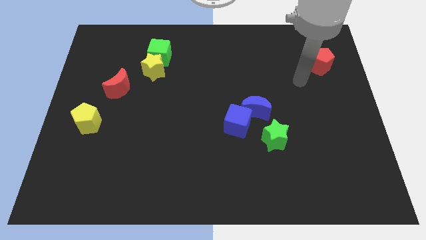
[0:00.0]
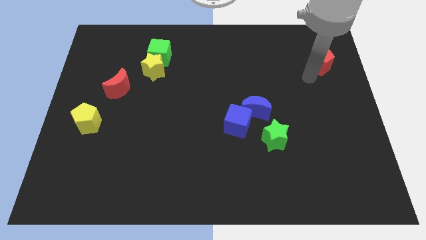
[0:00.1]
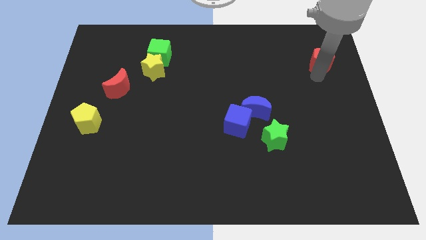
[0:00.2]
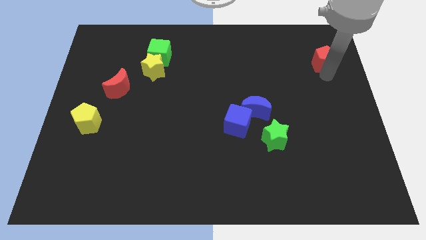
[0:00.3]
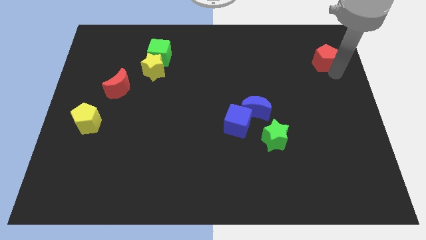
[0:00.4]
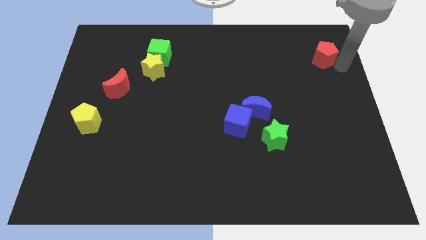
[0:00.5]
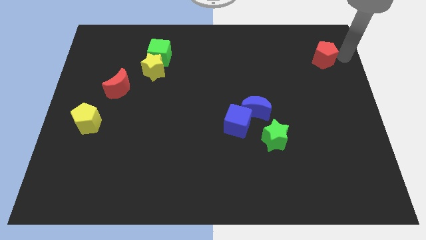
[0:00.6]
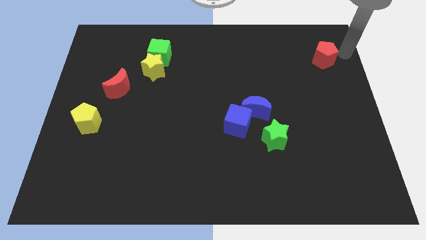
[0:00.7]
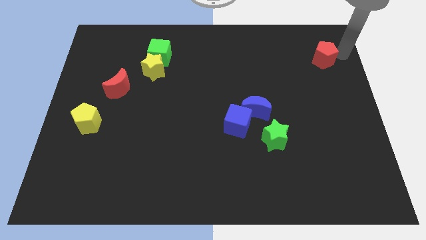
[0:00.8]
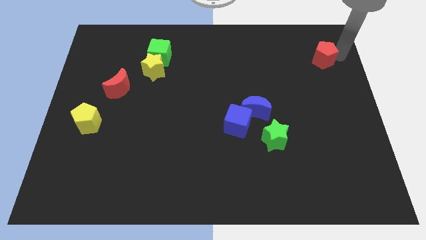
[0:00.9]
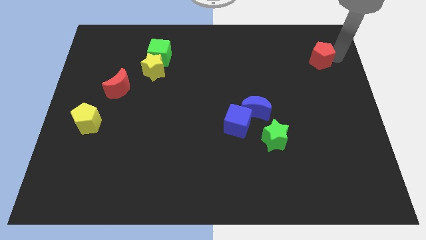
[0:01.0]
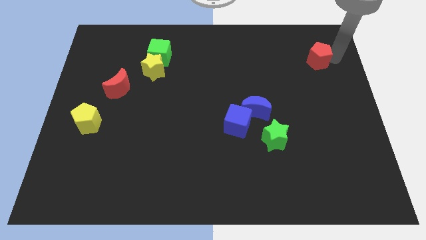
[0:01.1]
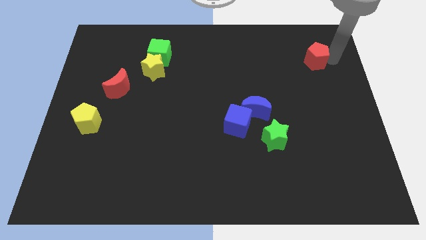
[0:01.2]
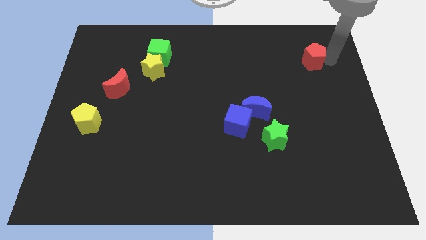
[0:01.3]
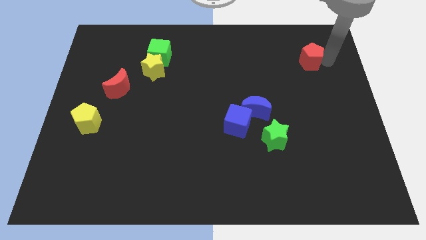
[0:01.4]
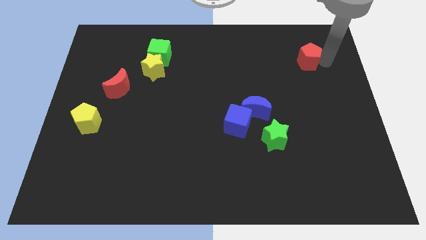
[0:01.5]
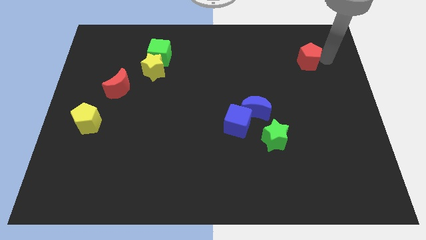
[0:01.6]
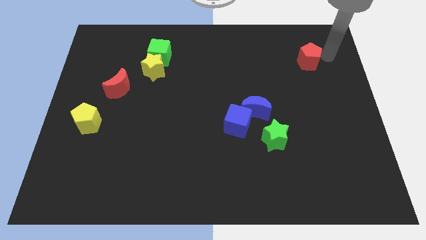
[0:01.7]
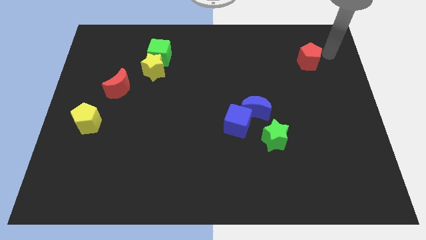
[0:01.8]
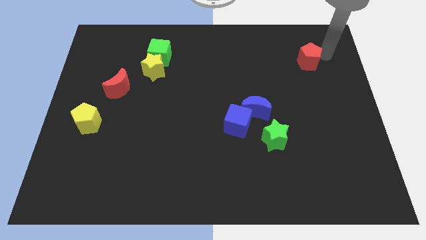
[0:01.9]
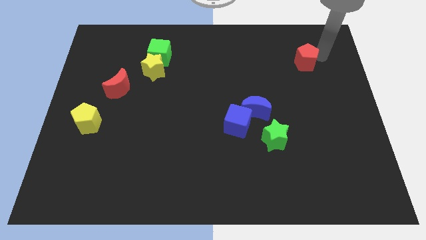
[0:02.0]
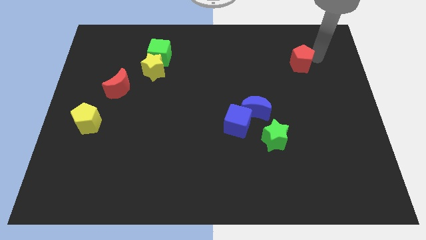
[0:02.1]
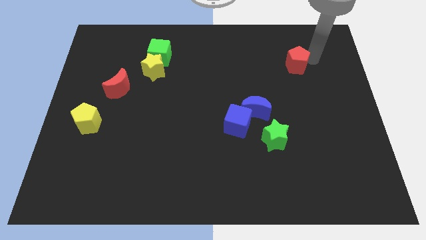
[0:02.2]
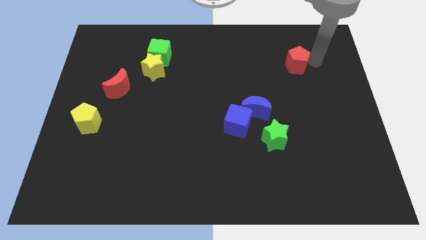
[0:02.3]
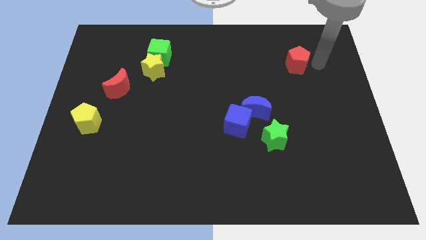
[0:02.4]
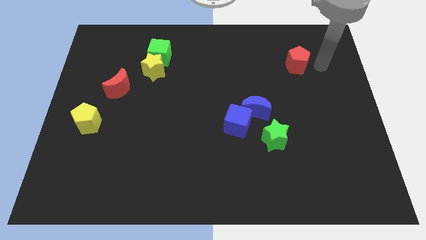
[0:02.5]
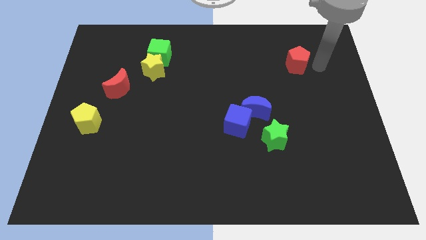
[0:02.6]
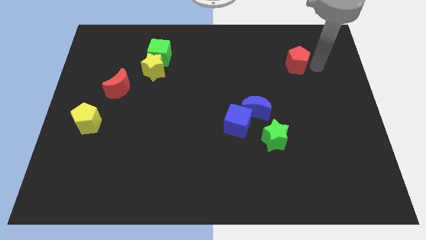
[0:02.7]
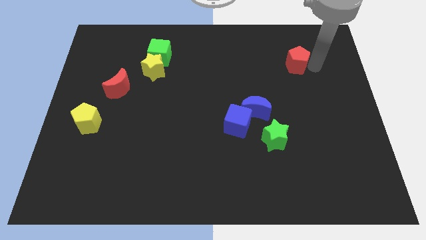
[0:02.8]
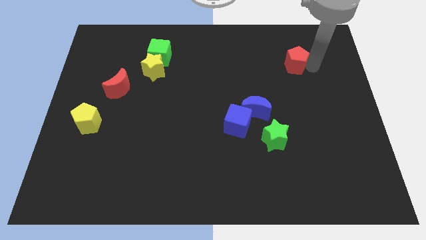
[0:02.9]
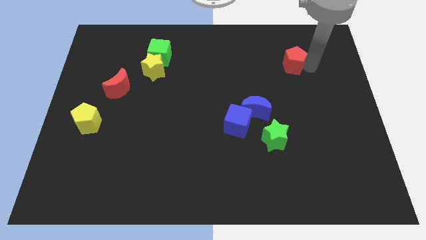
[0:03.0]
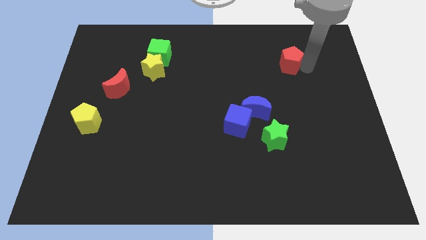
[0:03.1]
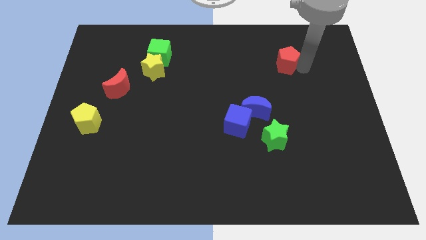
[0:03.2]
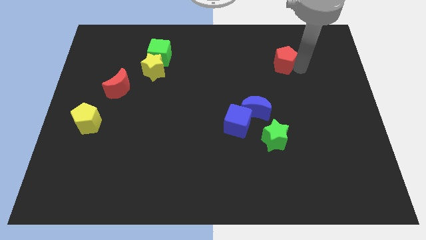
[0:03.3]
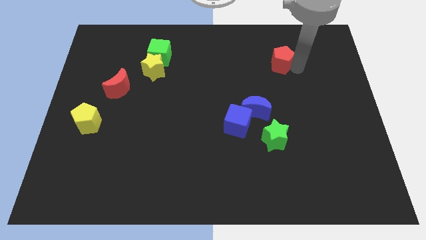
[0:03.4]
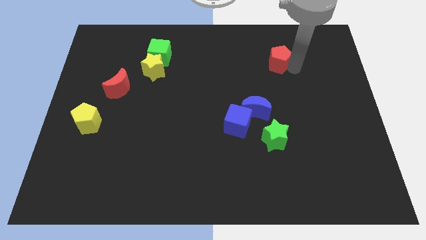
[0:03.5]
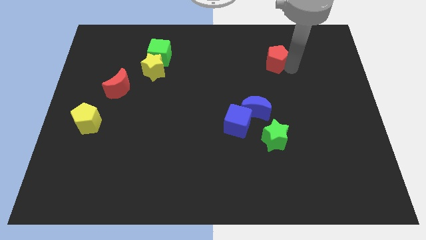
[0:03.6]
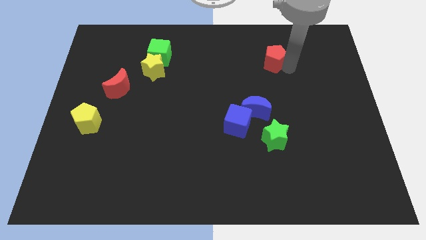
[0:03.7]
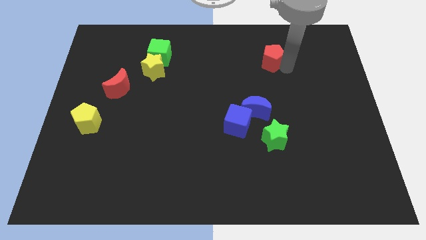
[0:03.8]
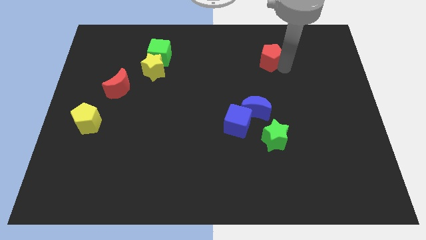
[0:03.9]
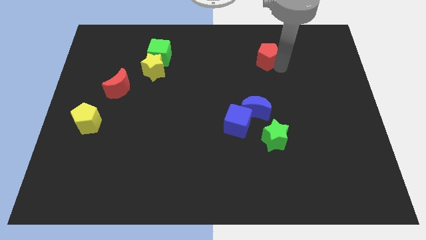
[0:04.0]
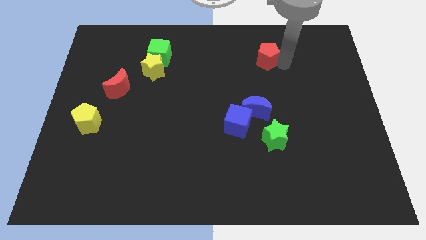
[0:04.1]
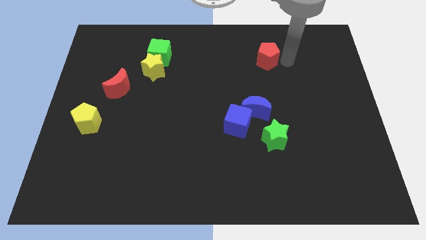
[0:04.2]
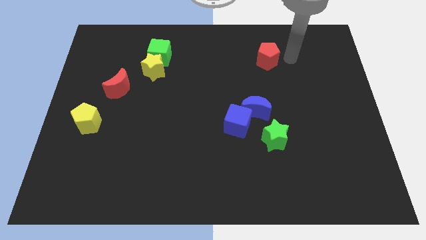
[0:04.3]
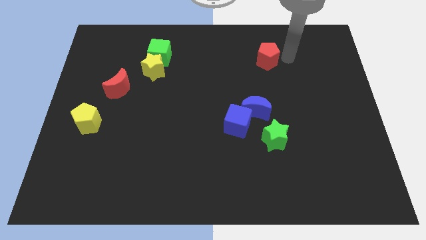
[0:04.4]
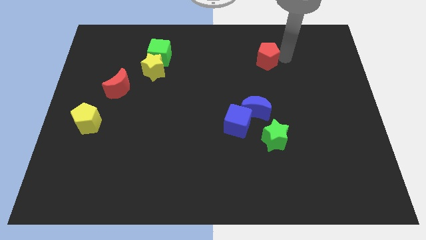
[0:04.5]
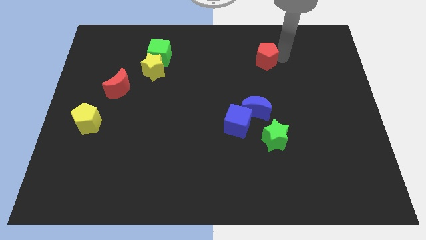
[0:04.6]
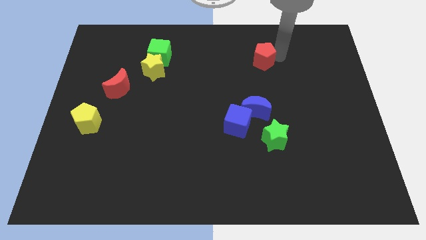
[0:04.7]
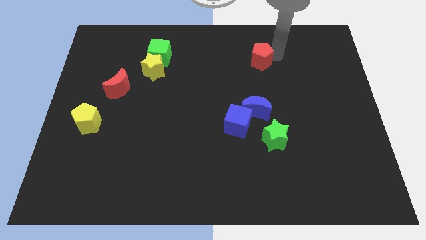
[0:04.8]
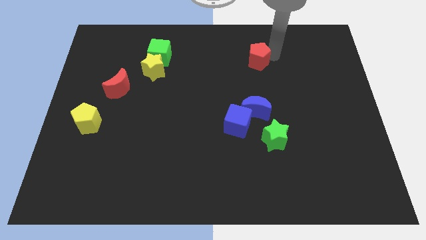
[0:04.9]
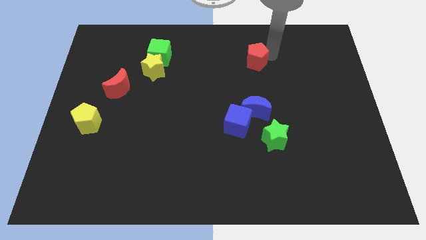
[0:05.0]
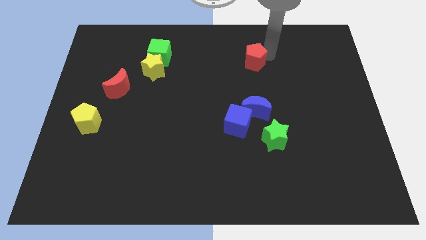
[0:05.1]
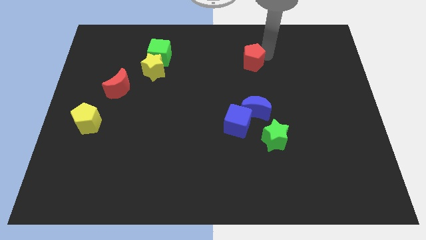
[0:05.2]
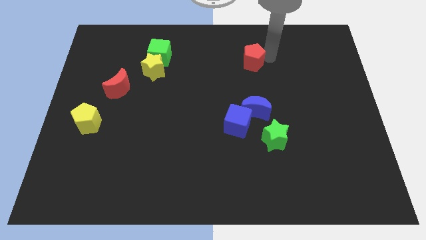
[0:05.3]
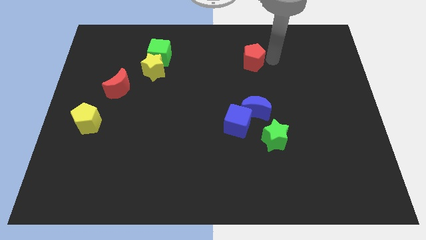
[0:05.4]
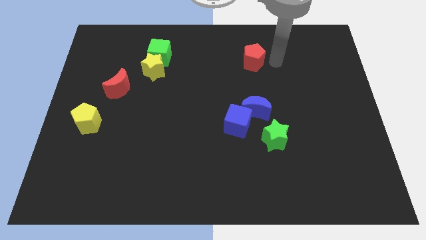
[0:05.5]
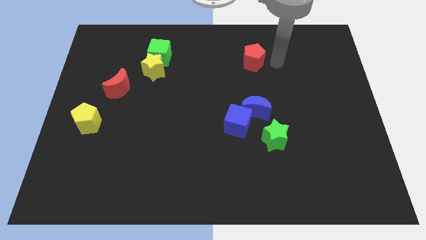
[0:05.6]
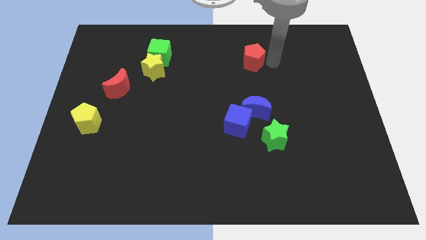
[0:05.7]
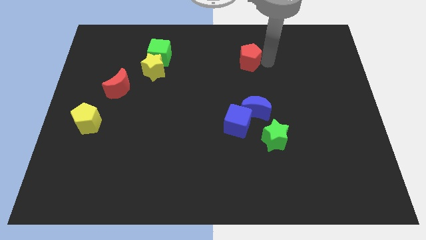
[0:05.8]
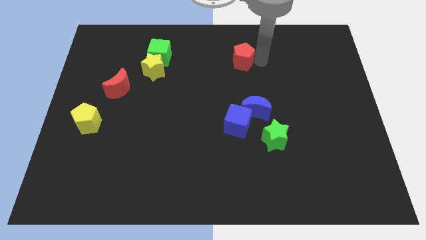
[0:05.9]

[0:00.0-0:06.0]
slide the red pentagon to the left

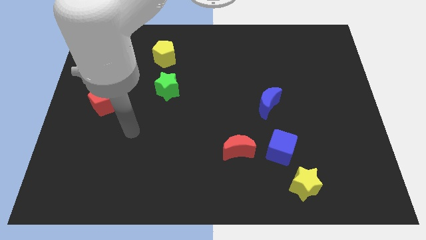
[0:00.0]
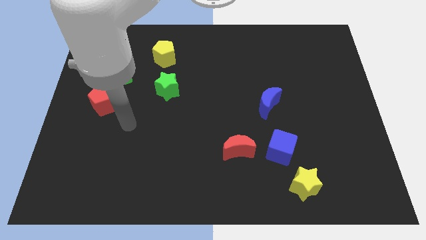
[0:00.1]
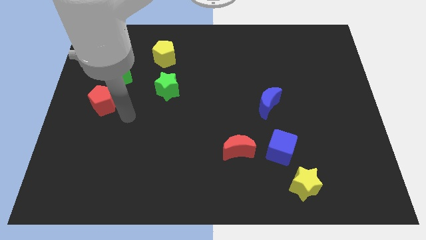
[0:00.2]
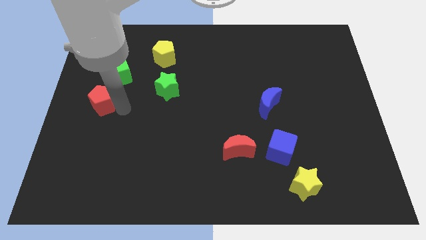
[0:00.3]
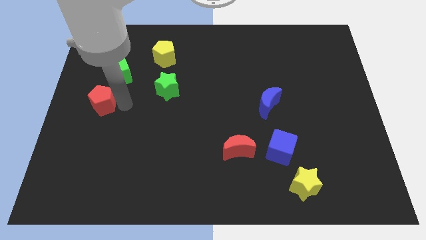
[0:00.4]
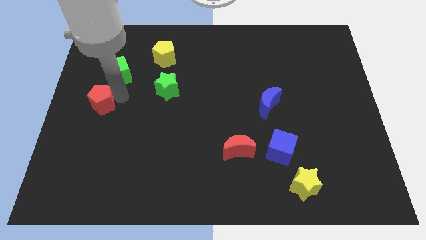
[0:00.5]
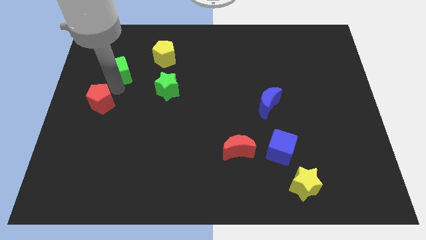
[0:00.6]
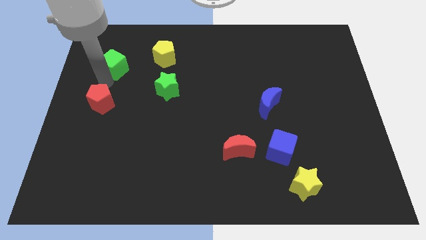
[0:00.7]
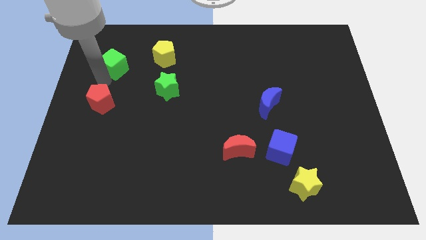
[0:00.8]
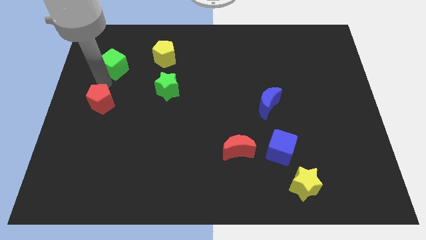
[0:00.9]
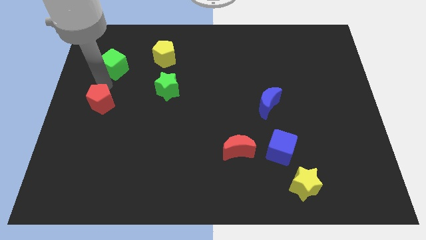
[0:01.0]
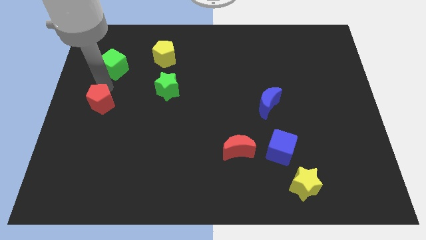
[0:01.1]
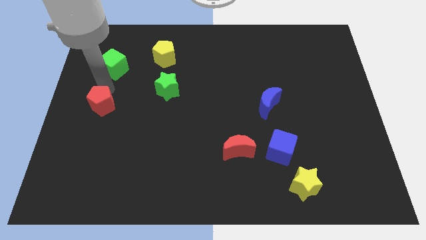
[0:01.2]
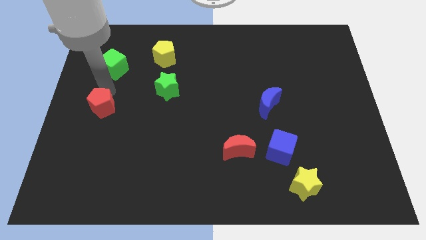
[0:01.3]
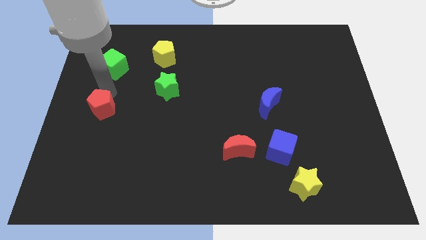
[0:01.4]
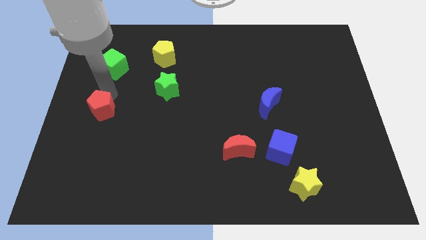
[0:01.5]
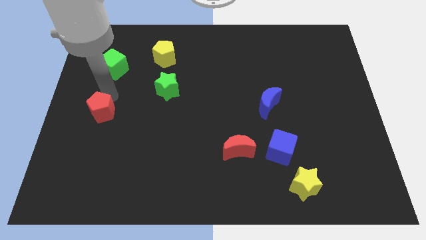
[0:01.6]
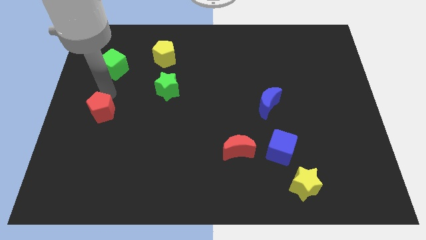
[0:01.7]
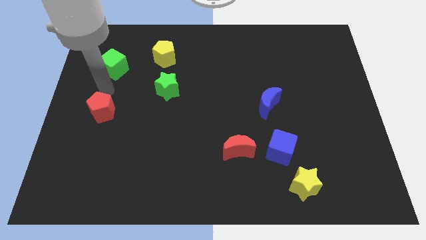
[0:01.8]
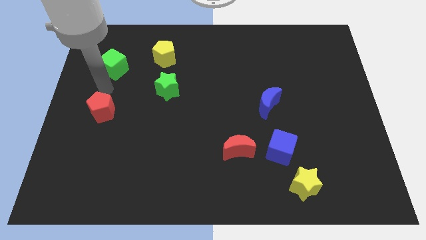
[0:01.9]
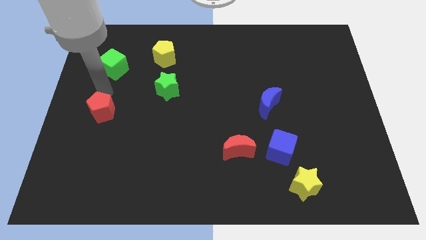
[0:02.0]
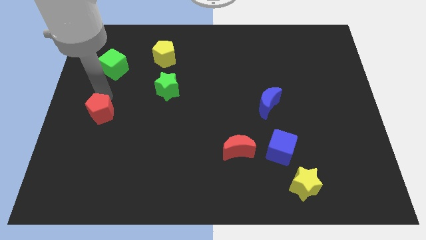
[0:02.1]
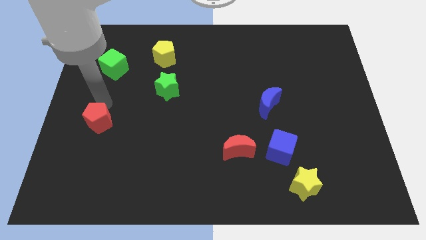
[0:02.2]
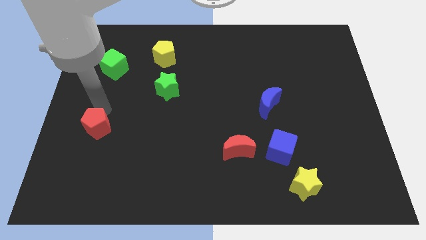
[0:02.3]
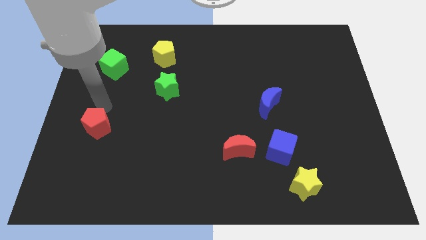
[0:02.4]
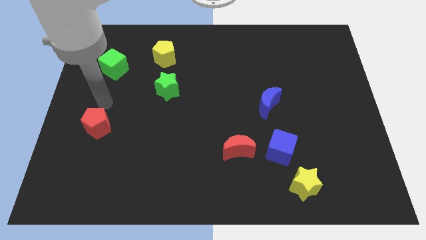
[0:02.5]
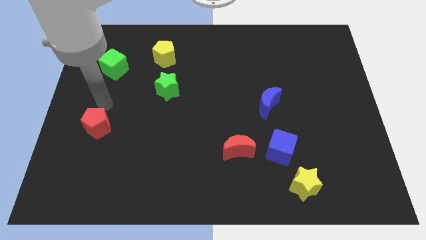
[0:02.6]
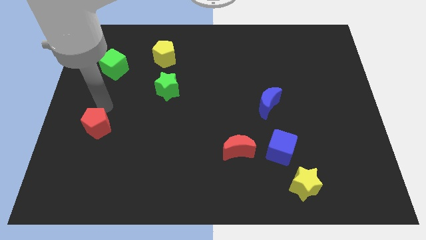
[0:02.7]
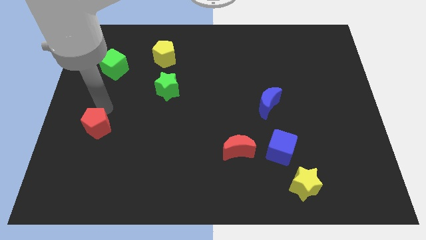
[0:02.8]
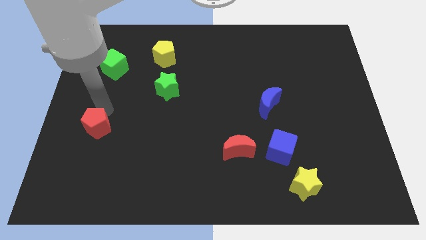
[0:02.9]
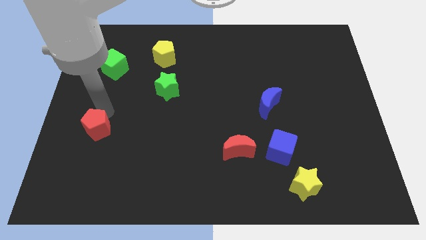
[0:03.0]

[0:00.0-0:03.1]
move the red pentagon down a little
